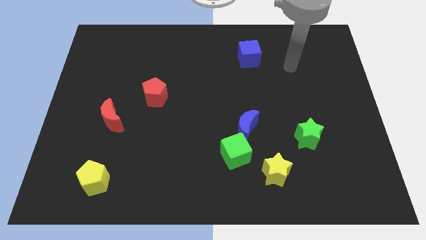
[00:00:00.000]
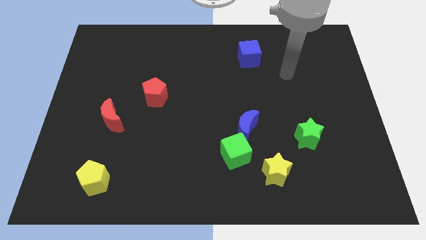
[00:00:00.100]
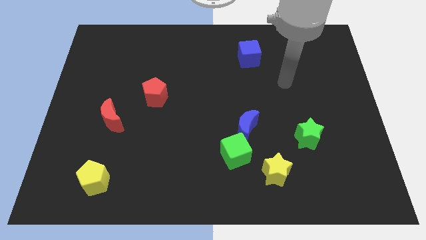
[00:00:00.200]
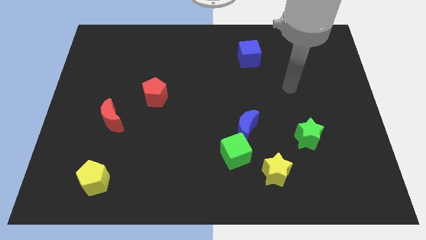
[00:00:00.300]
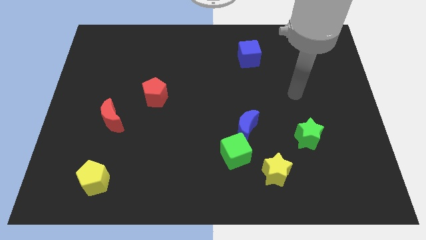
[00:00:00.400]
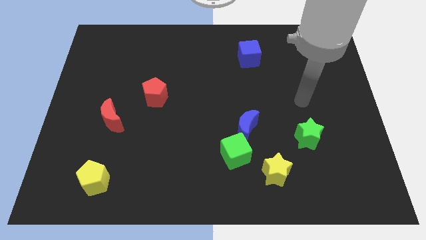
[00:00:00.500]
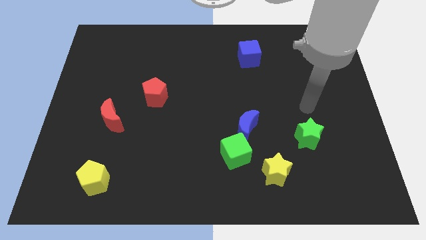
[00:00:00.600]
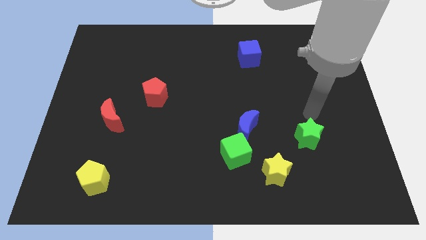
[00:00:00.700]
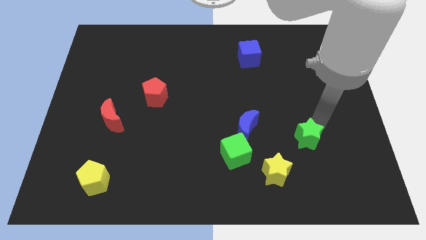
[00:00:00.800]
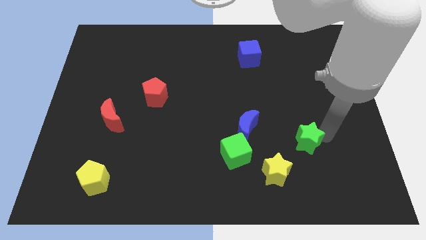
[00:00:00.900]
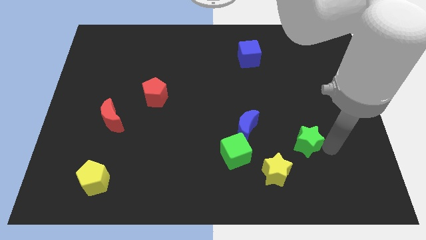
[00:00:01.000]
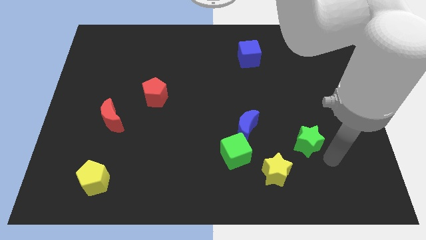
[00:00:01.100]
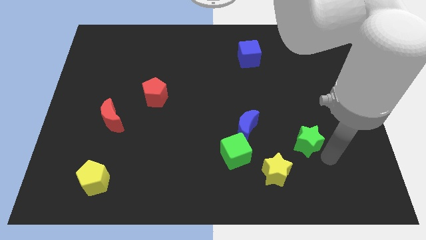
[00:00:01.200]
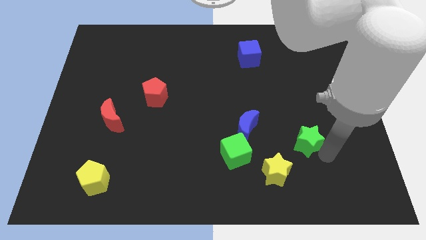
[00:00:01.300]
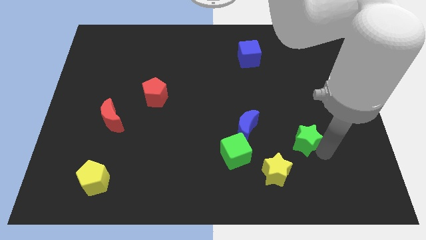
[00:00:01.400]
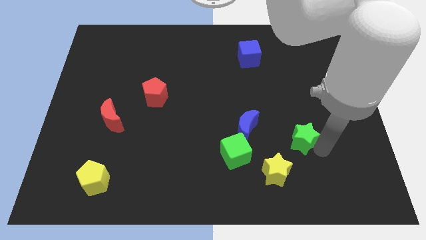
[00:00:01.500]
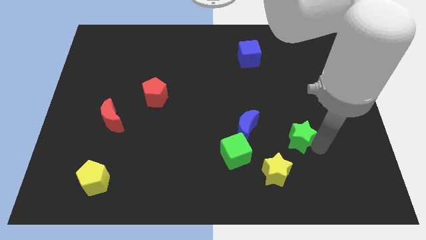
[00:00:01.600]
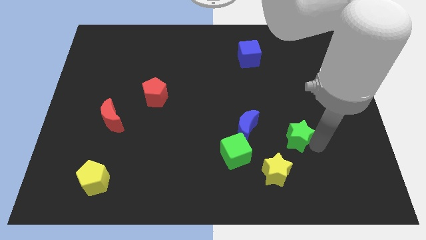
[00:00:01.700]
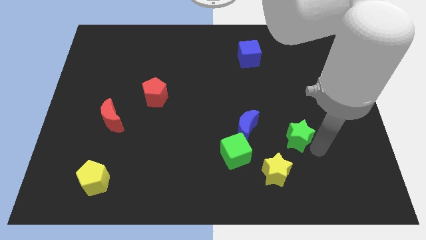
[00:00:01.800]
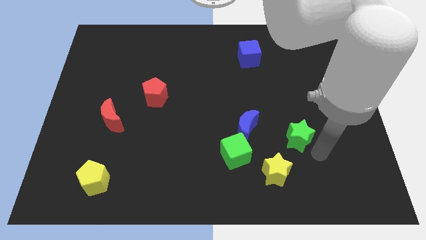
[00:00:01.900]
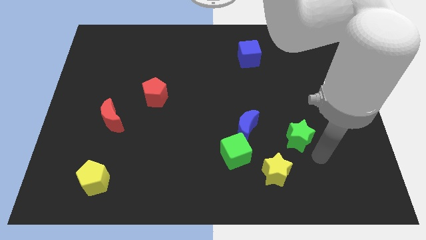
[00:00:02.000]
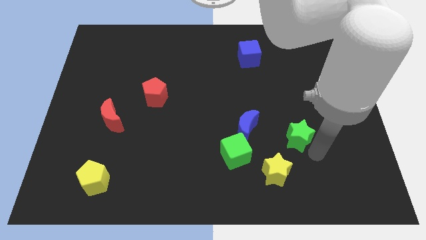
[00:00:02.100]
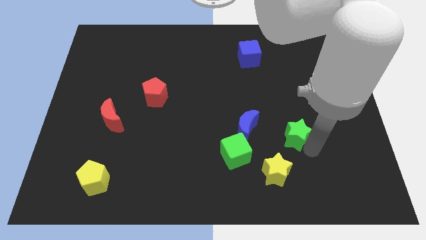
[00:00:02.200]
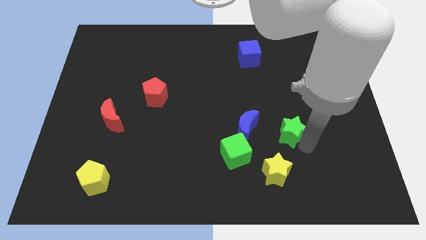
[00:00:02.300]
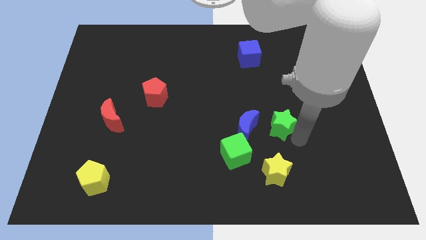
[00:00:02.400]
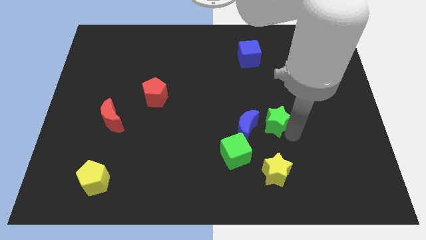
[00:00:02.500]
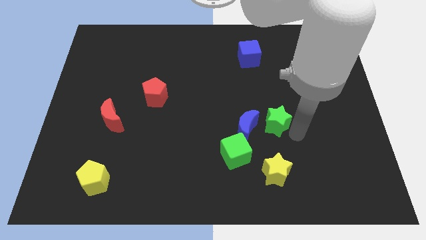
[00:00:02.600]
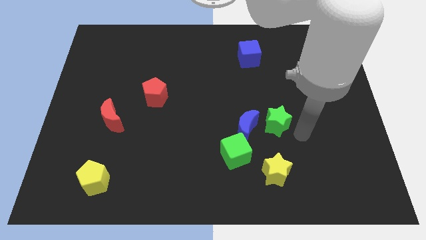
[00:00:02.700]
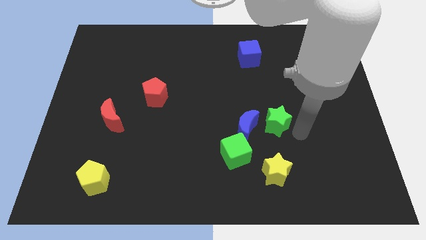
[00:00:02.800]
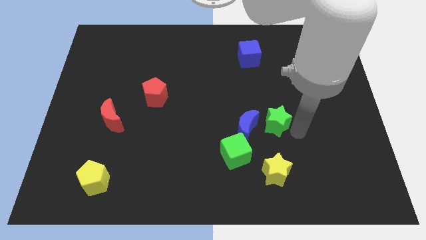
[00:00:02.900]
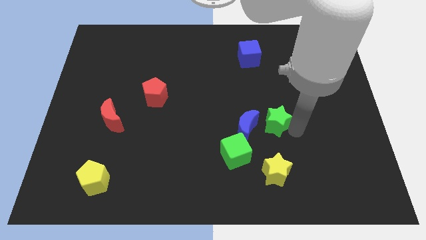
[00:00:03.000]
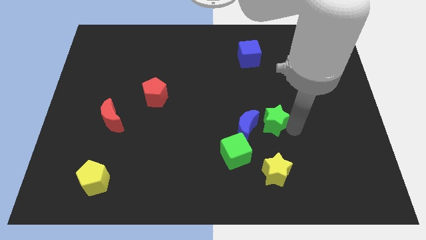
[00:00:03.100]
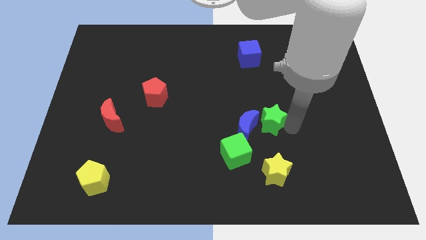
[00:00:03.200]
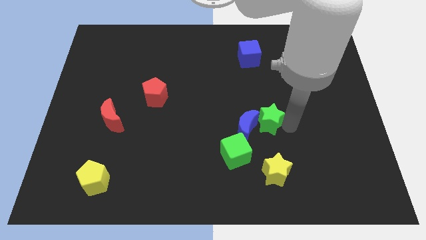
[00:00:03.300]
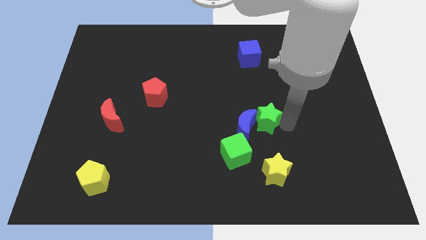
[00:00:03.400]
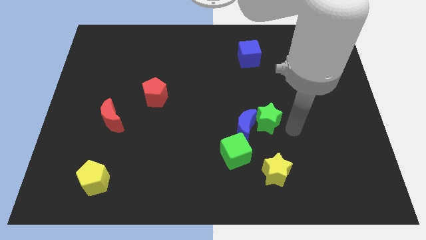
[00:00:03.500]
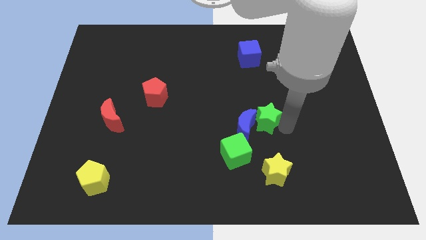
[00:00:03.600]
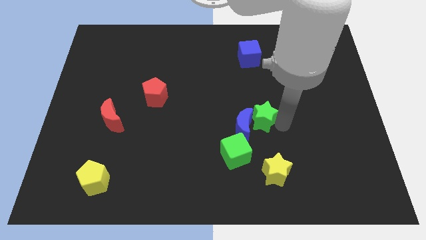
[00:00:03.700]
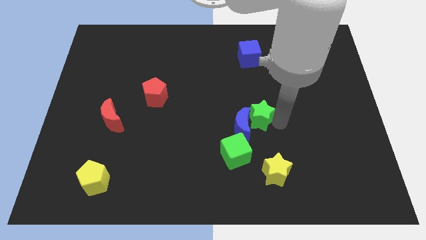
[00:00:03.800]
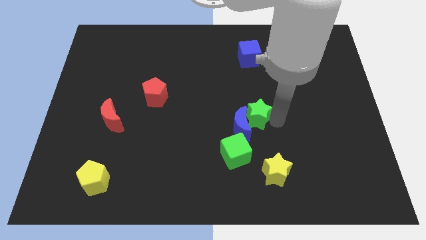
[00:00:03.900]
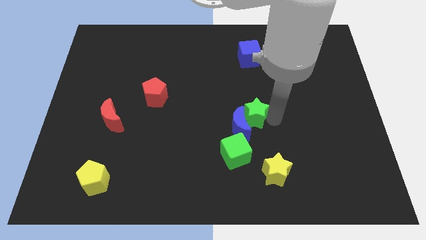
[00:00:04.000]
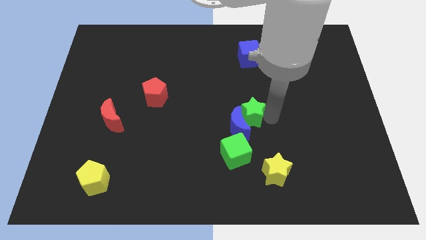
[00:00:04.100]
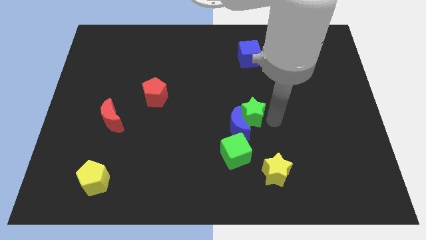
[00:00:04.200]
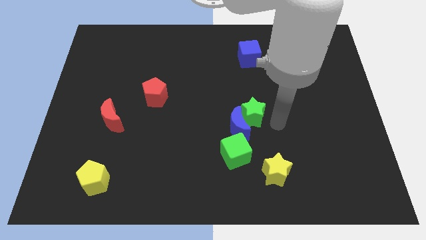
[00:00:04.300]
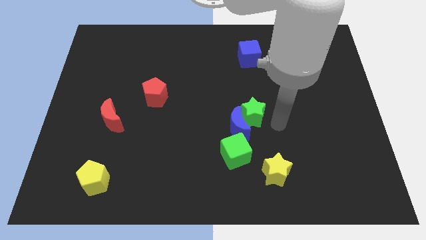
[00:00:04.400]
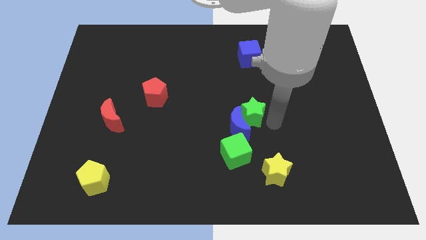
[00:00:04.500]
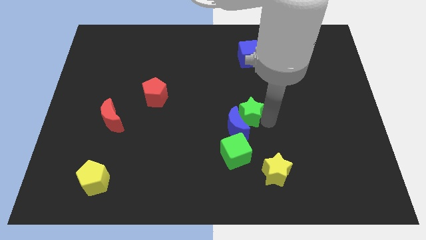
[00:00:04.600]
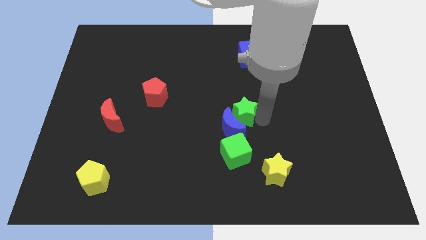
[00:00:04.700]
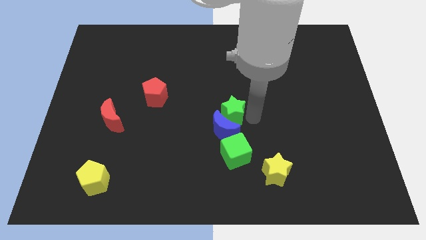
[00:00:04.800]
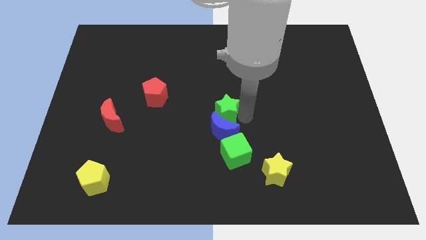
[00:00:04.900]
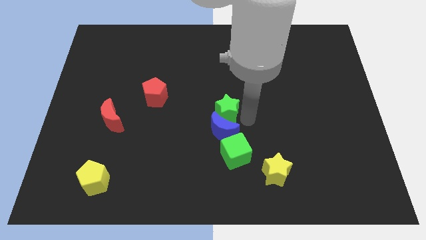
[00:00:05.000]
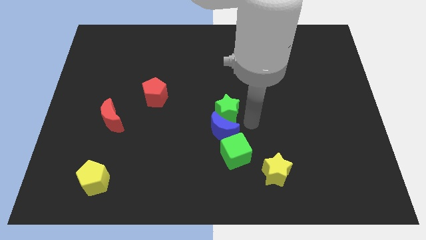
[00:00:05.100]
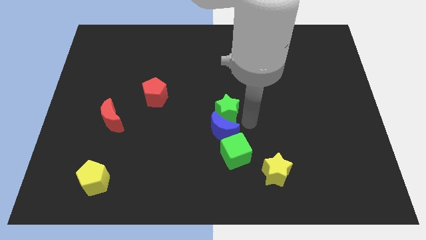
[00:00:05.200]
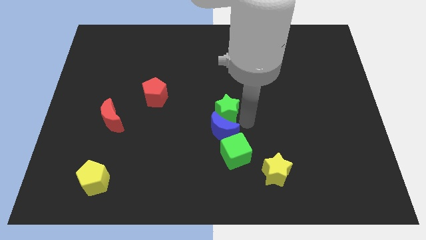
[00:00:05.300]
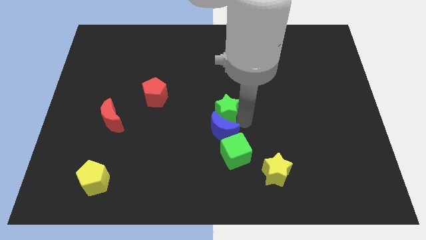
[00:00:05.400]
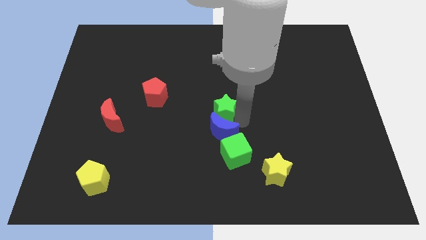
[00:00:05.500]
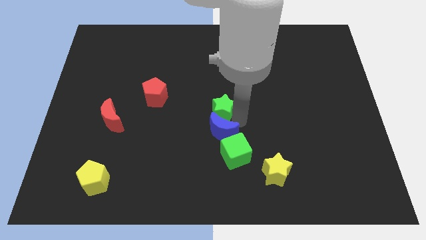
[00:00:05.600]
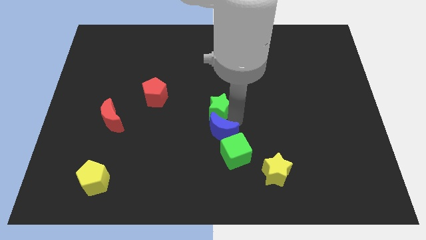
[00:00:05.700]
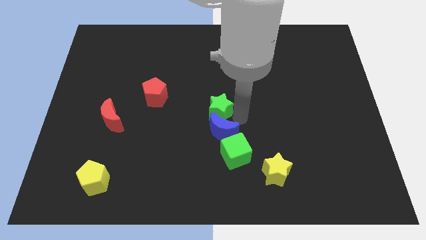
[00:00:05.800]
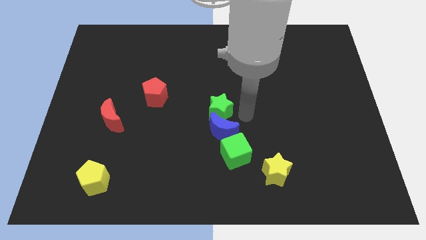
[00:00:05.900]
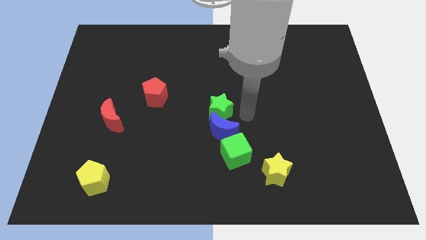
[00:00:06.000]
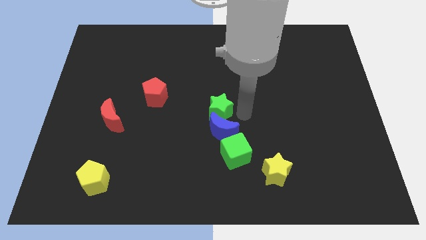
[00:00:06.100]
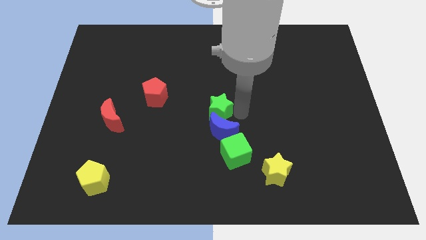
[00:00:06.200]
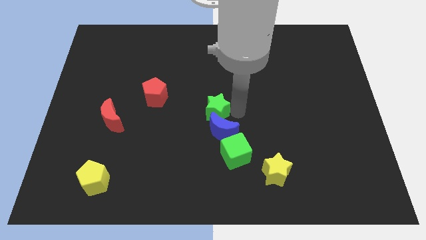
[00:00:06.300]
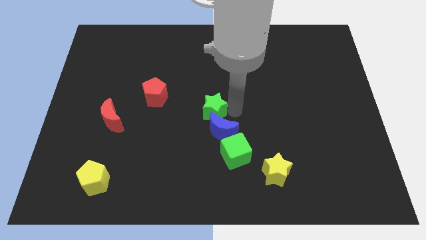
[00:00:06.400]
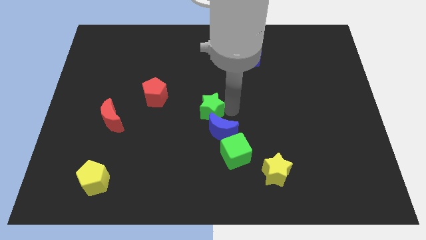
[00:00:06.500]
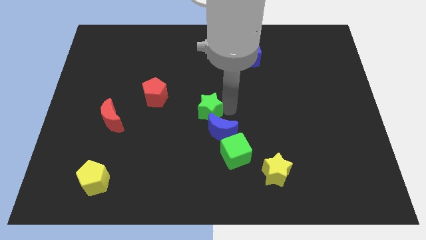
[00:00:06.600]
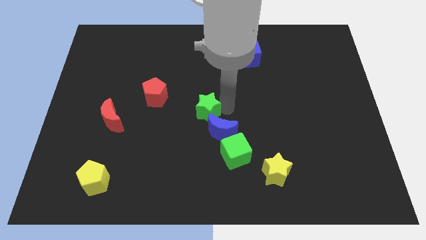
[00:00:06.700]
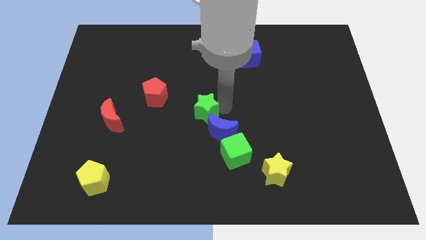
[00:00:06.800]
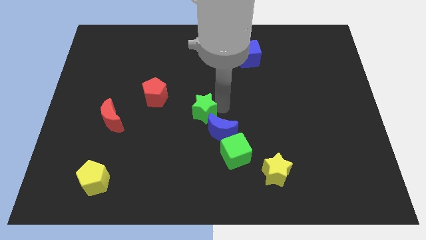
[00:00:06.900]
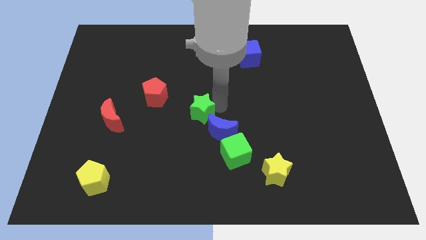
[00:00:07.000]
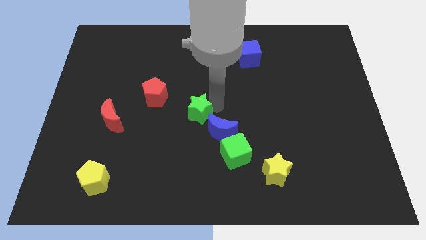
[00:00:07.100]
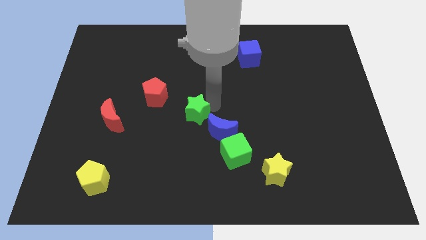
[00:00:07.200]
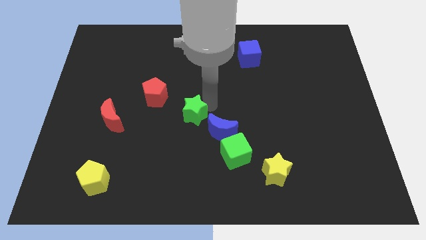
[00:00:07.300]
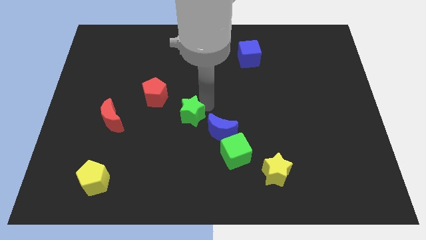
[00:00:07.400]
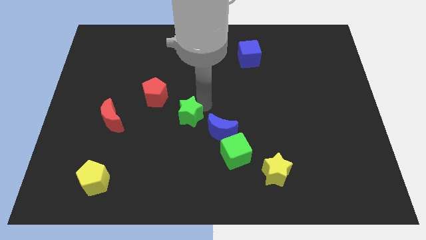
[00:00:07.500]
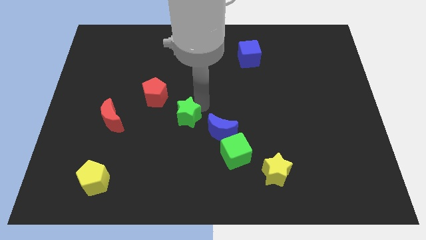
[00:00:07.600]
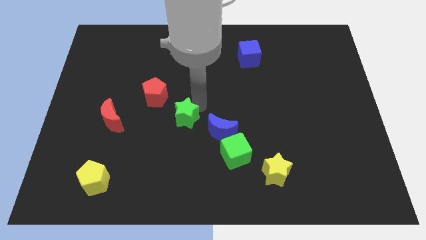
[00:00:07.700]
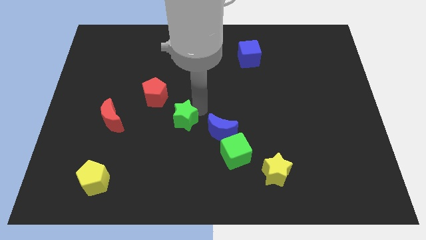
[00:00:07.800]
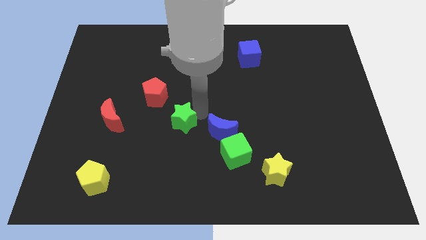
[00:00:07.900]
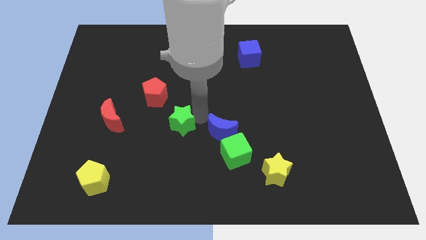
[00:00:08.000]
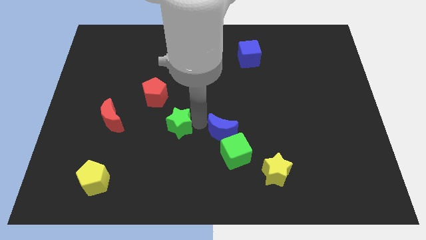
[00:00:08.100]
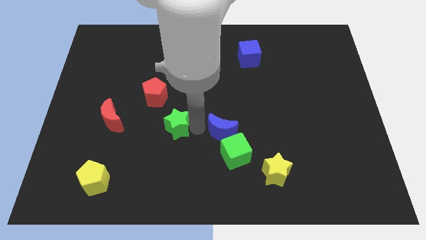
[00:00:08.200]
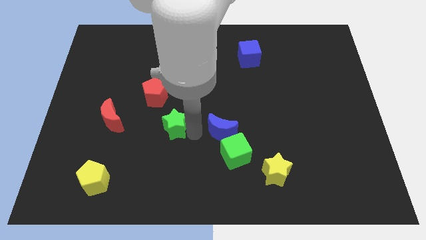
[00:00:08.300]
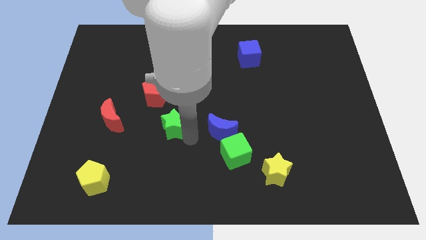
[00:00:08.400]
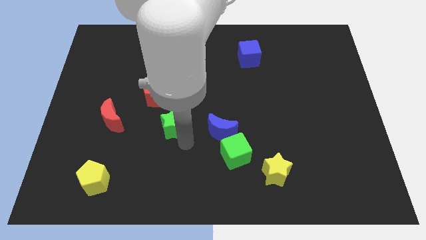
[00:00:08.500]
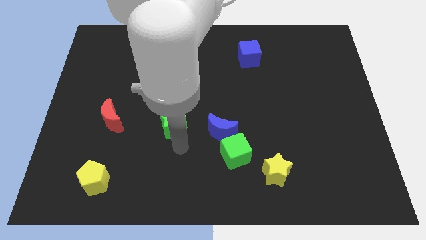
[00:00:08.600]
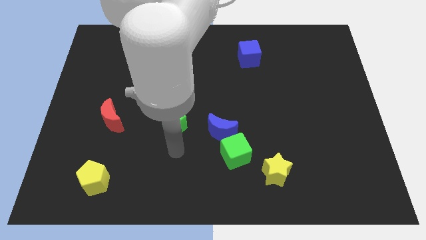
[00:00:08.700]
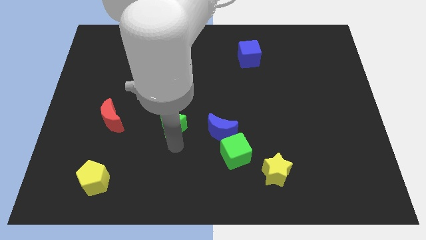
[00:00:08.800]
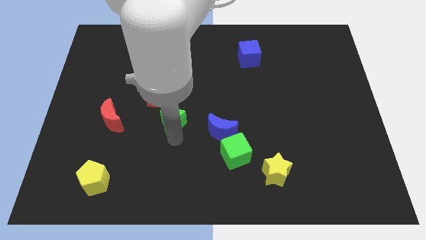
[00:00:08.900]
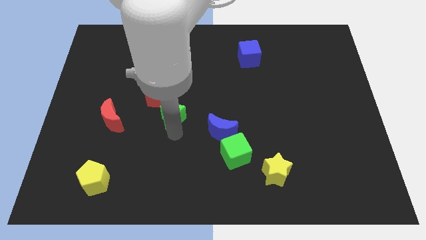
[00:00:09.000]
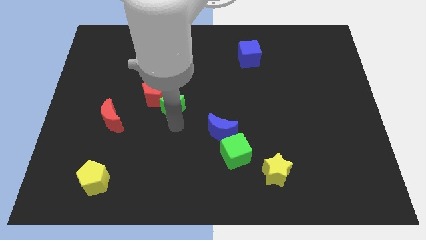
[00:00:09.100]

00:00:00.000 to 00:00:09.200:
put the green star close to the red pentagon
